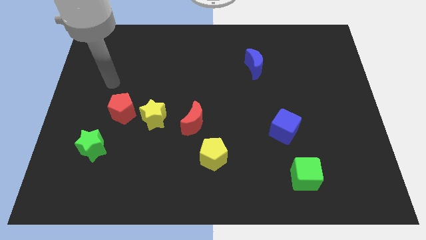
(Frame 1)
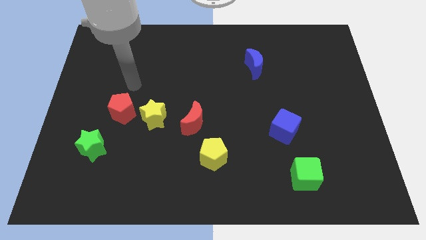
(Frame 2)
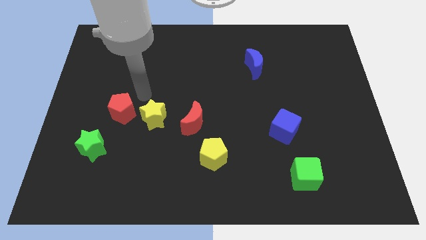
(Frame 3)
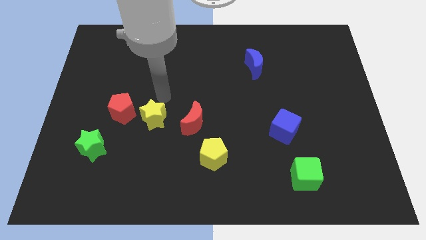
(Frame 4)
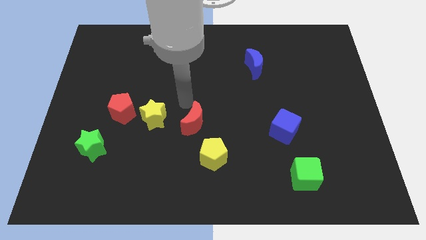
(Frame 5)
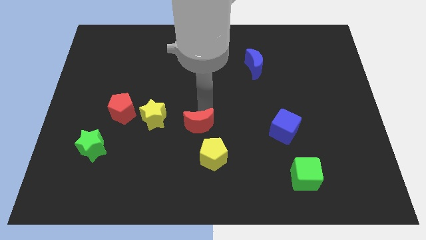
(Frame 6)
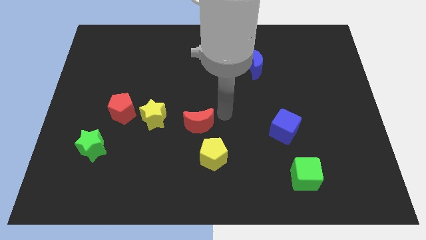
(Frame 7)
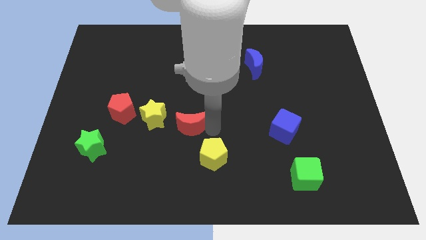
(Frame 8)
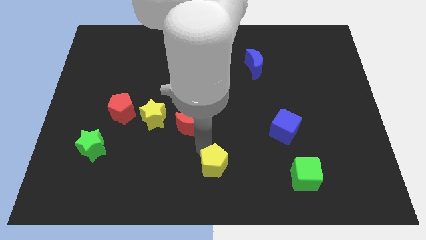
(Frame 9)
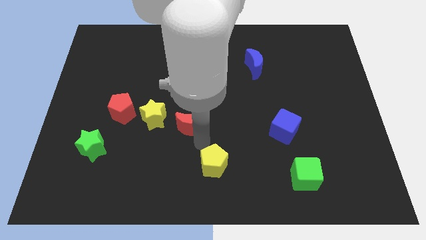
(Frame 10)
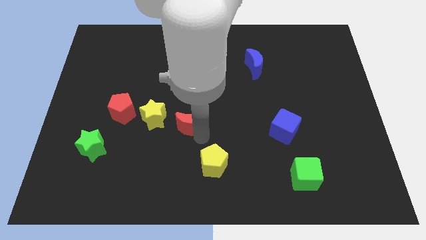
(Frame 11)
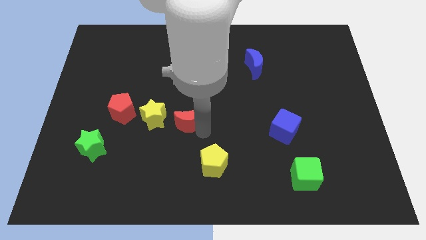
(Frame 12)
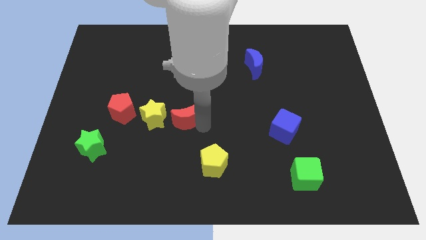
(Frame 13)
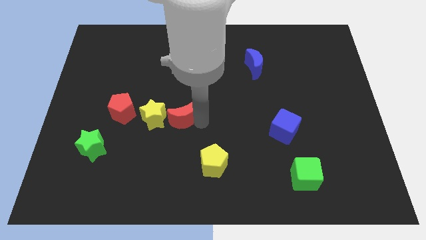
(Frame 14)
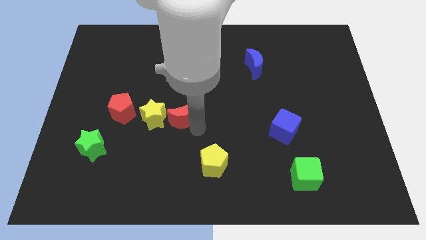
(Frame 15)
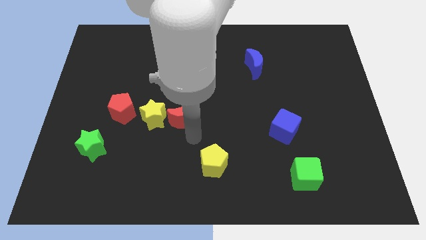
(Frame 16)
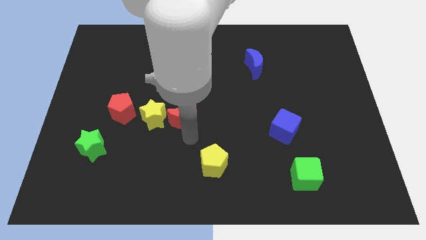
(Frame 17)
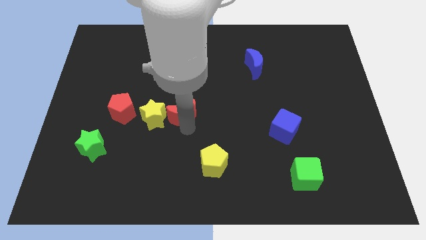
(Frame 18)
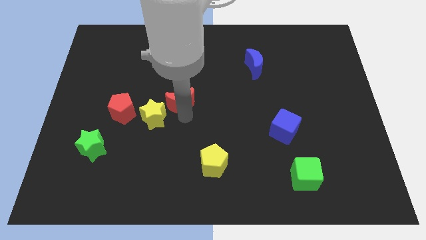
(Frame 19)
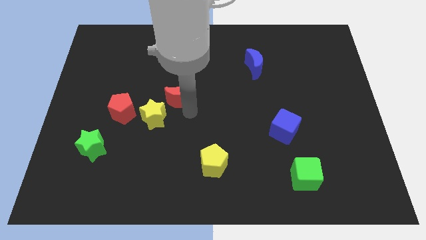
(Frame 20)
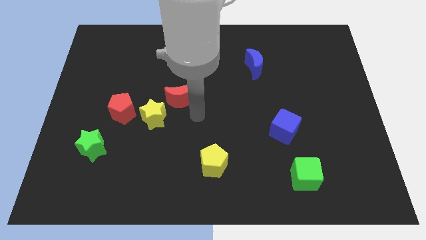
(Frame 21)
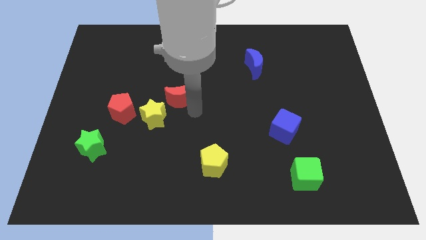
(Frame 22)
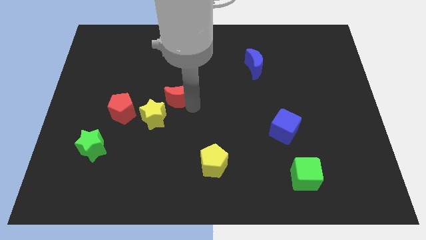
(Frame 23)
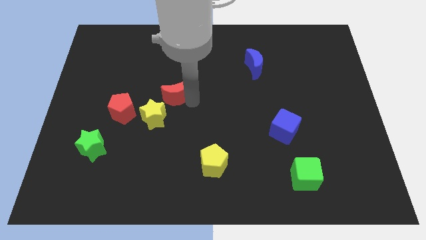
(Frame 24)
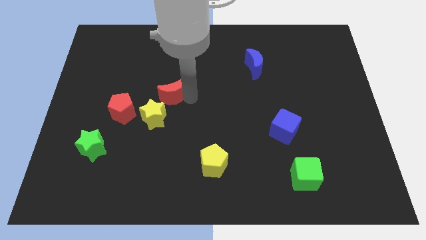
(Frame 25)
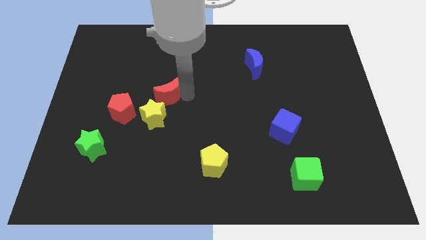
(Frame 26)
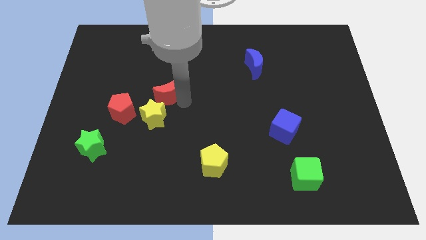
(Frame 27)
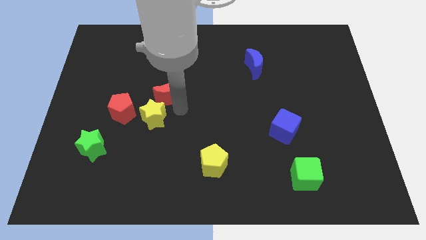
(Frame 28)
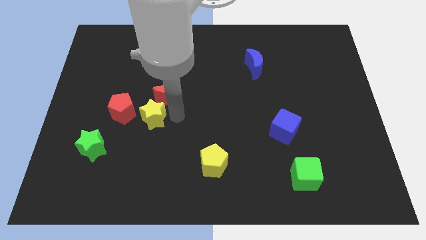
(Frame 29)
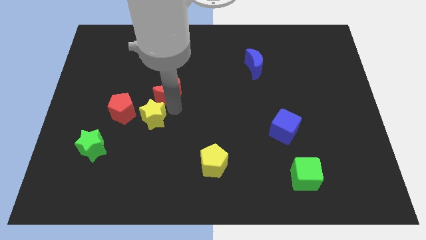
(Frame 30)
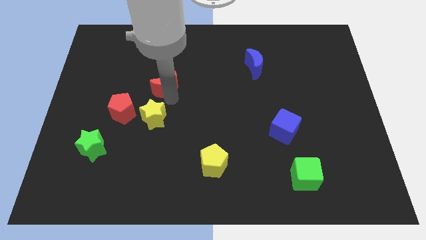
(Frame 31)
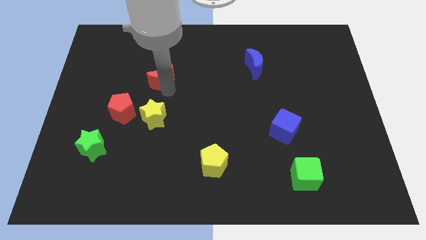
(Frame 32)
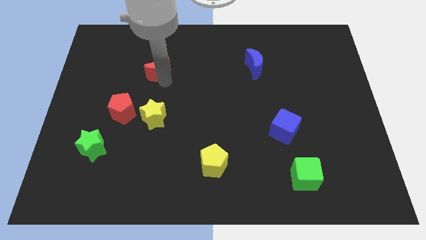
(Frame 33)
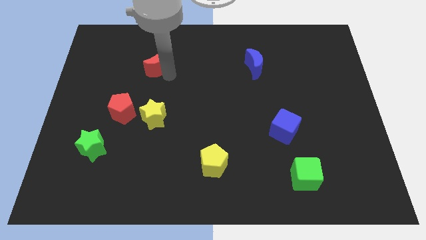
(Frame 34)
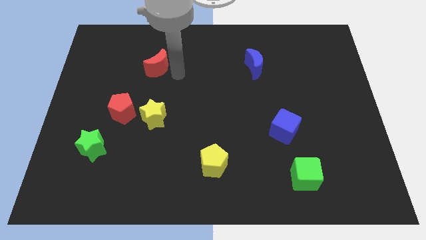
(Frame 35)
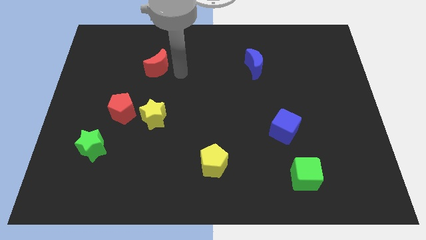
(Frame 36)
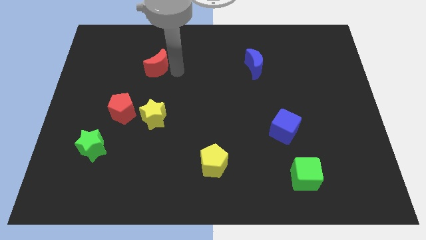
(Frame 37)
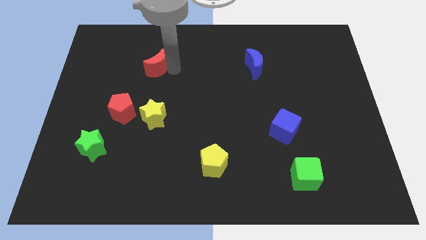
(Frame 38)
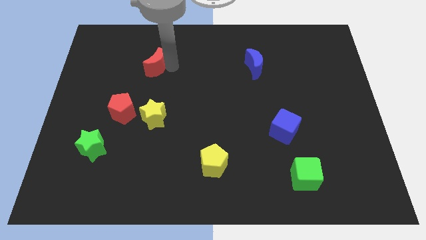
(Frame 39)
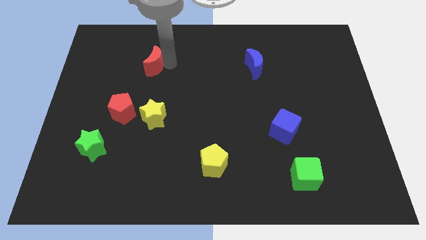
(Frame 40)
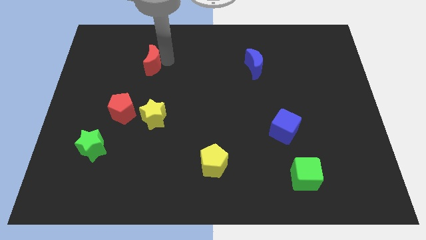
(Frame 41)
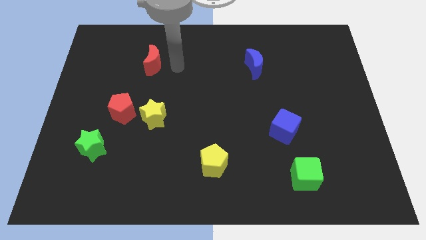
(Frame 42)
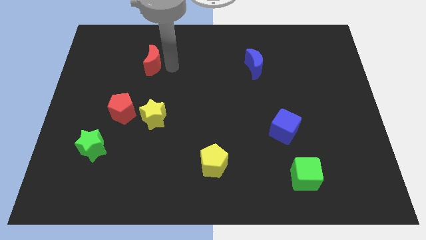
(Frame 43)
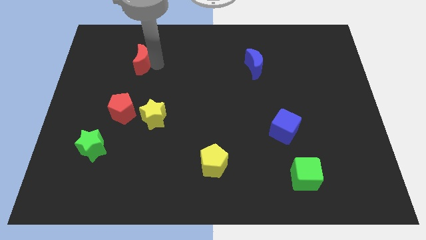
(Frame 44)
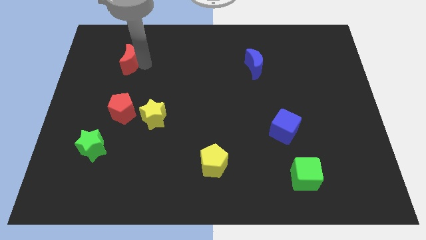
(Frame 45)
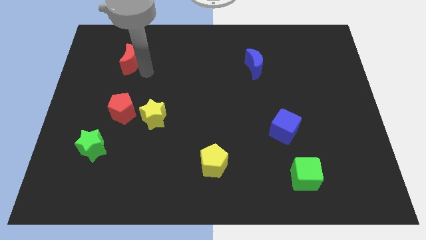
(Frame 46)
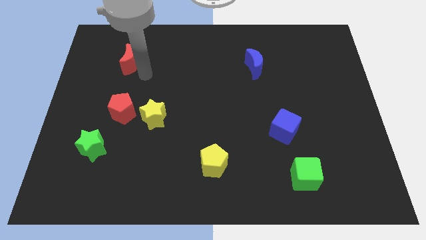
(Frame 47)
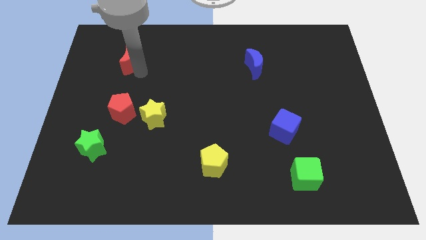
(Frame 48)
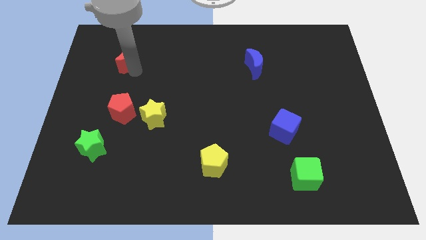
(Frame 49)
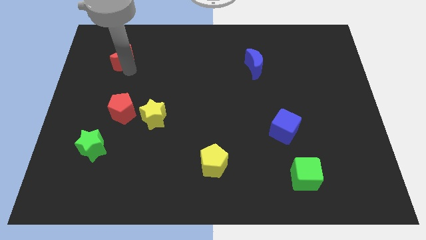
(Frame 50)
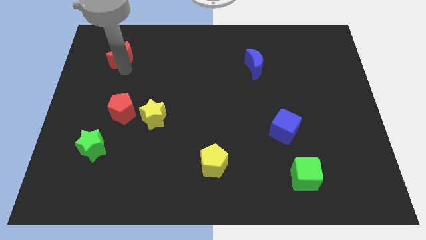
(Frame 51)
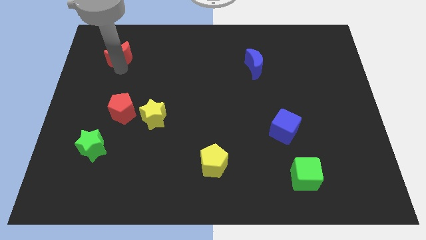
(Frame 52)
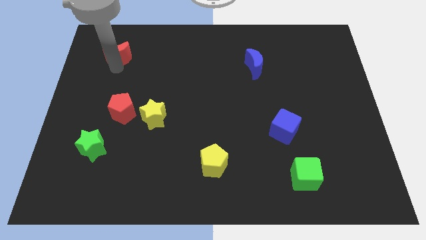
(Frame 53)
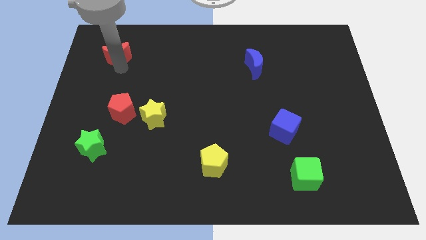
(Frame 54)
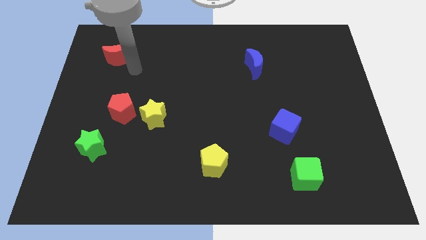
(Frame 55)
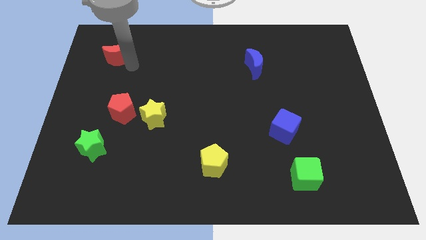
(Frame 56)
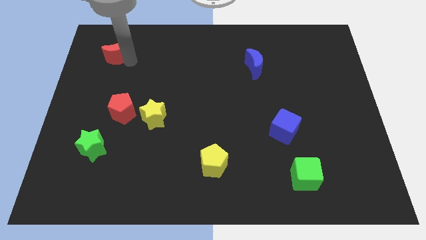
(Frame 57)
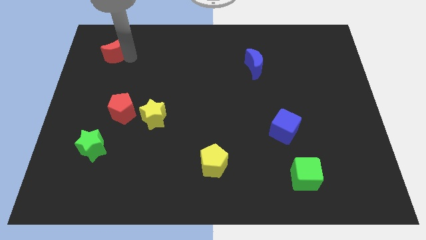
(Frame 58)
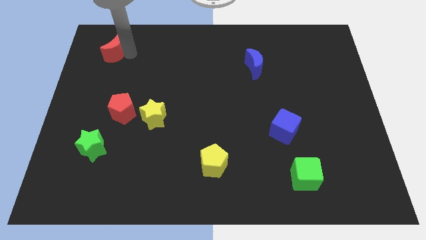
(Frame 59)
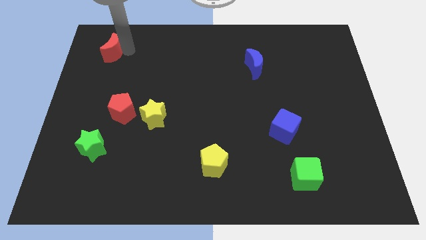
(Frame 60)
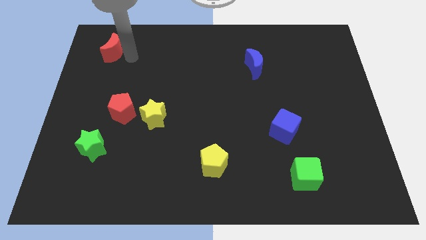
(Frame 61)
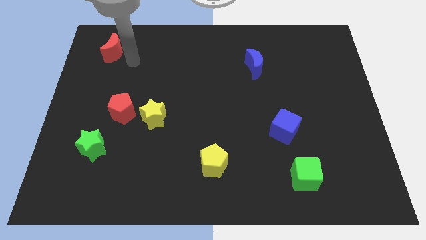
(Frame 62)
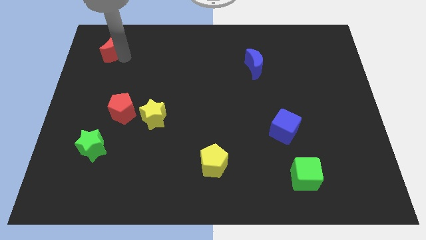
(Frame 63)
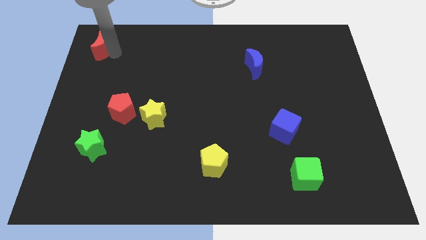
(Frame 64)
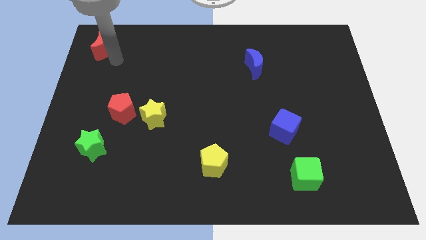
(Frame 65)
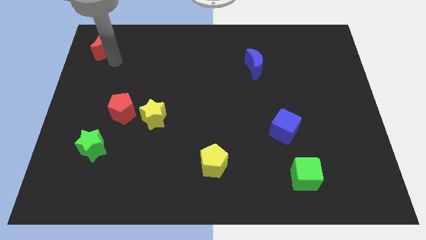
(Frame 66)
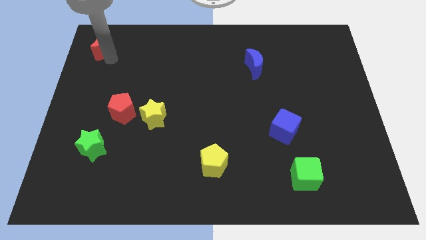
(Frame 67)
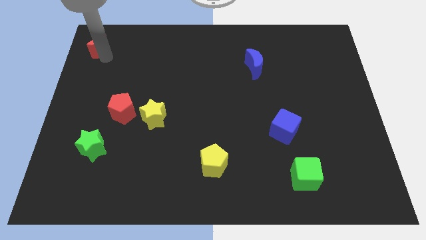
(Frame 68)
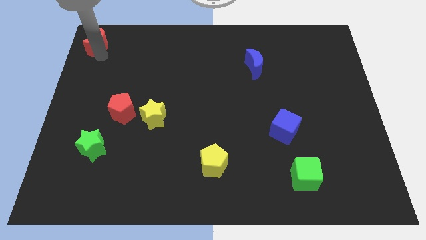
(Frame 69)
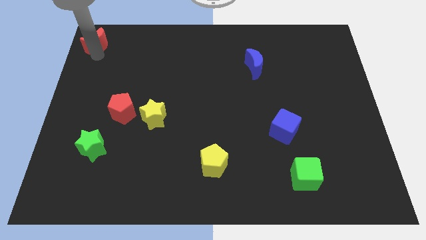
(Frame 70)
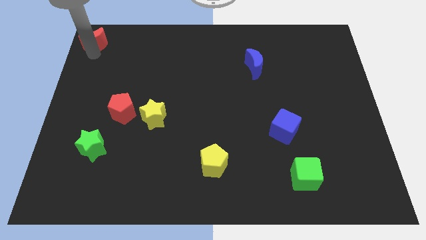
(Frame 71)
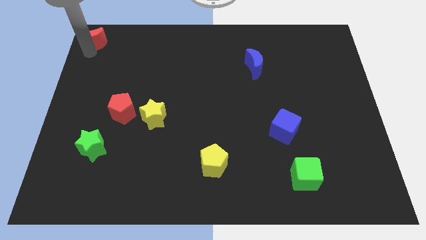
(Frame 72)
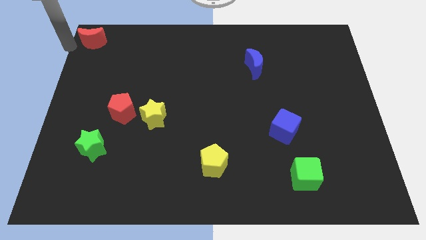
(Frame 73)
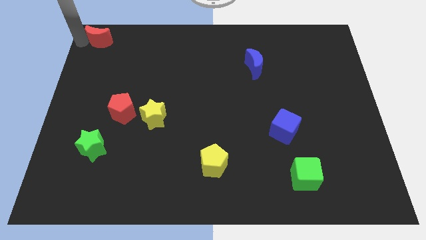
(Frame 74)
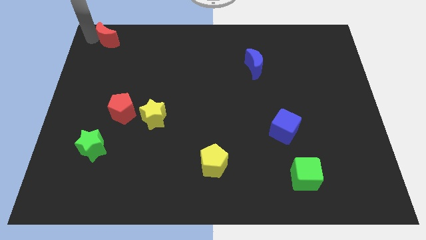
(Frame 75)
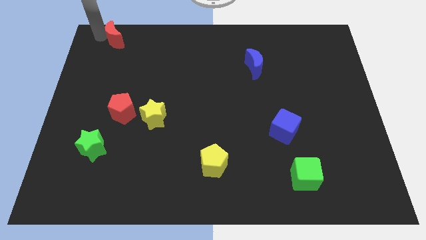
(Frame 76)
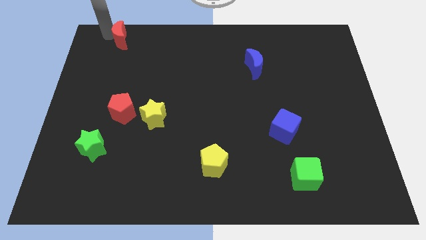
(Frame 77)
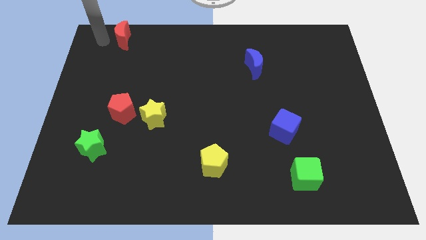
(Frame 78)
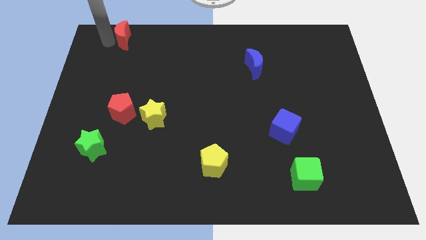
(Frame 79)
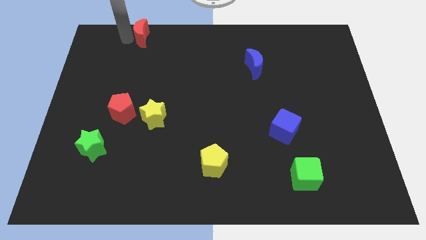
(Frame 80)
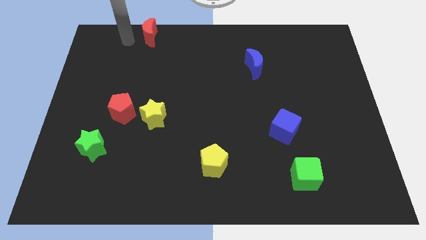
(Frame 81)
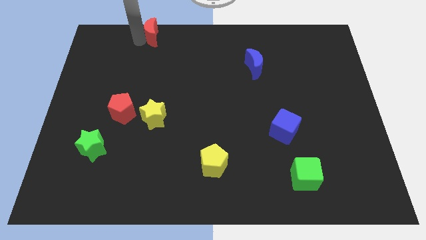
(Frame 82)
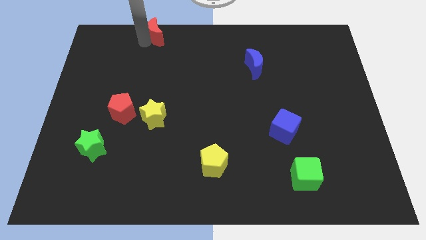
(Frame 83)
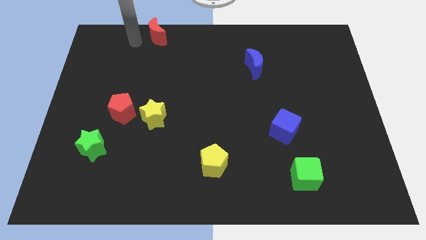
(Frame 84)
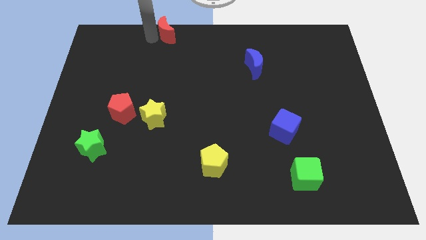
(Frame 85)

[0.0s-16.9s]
push the red moon to the towards your base
